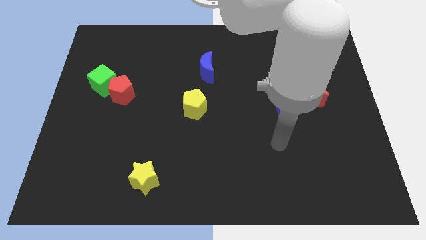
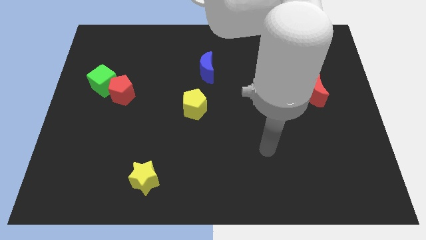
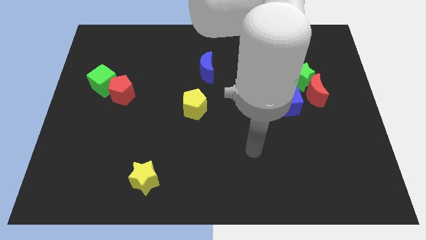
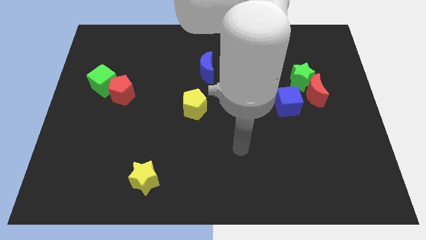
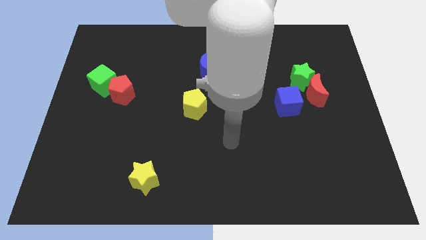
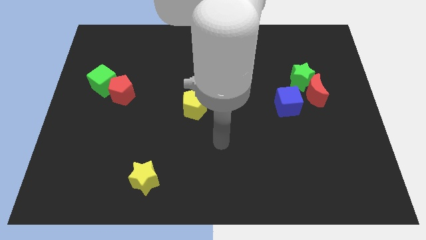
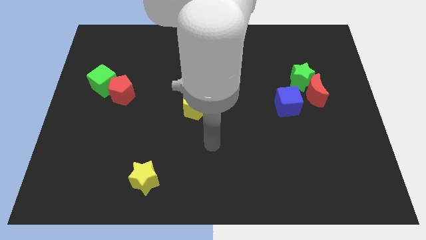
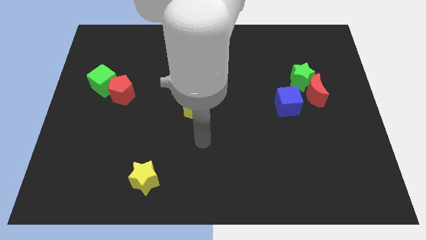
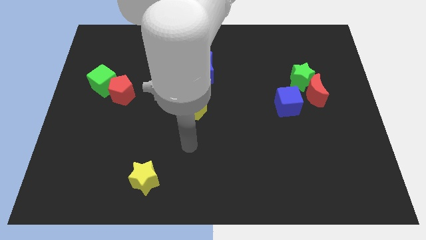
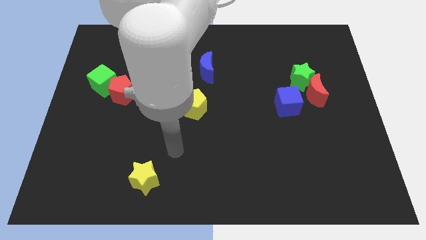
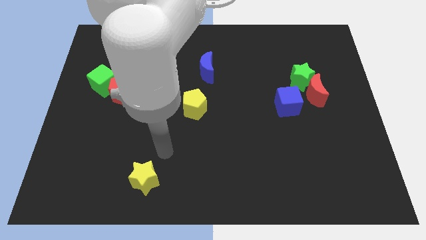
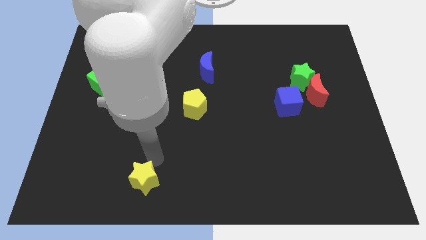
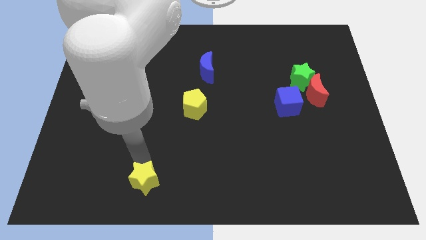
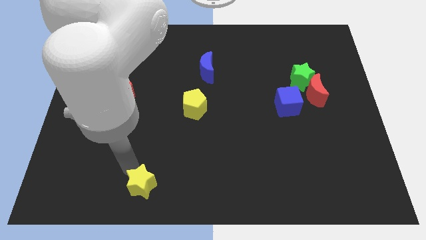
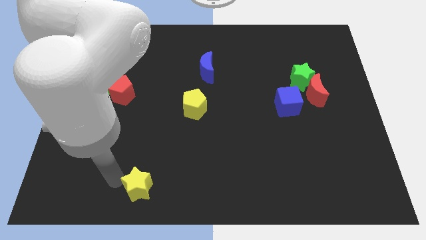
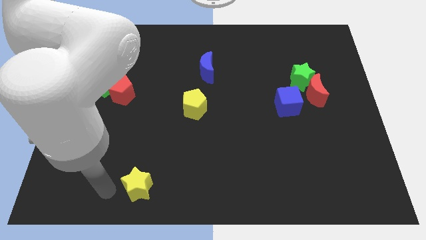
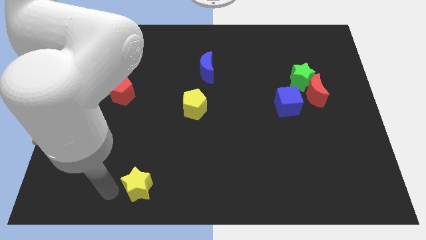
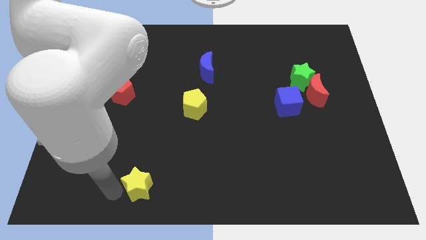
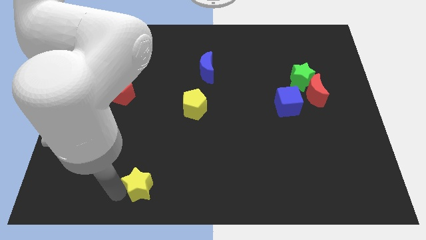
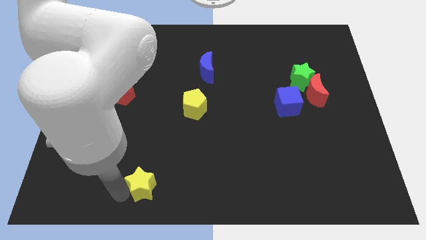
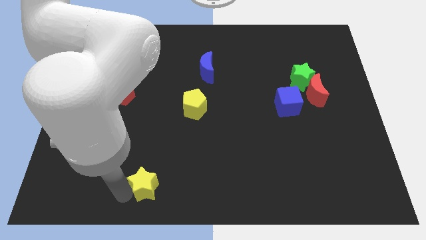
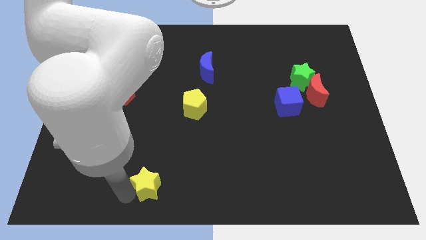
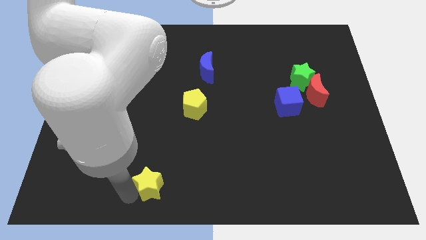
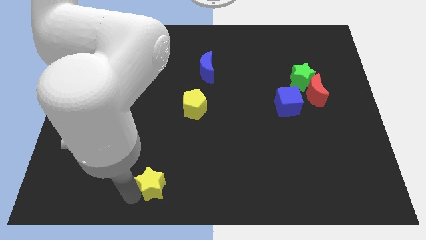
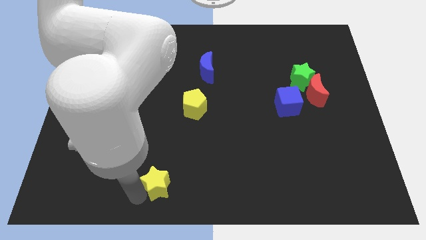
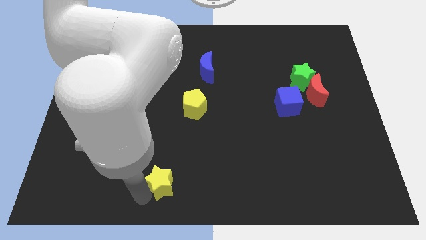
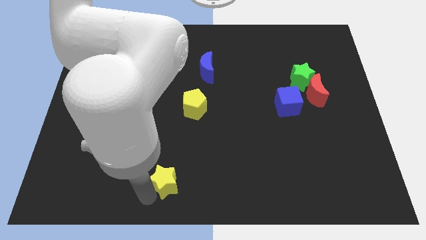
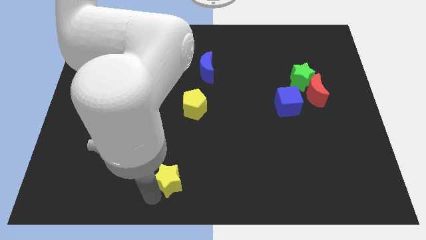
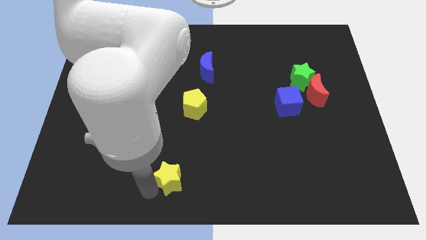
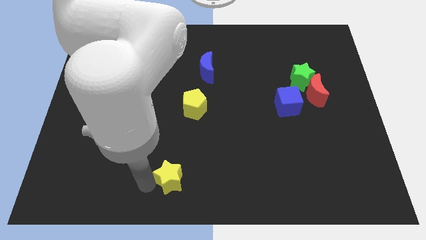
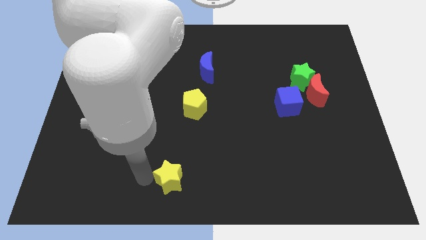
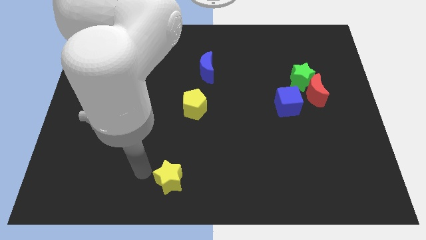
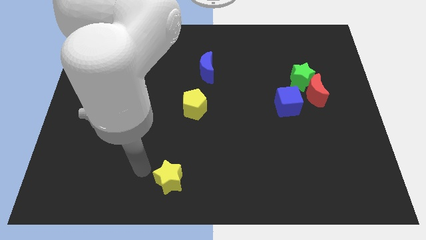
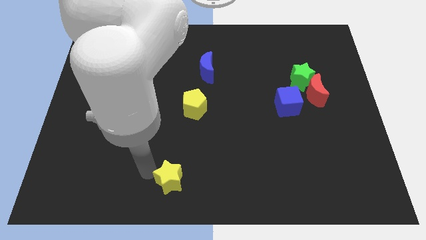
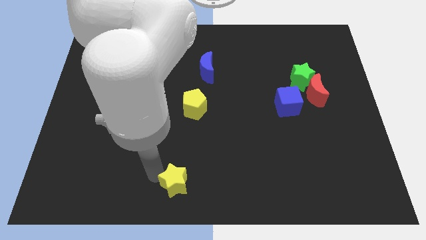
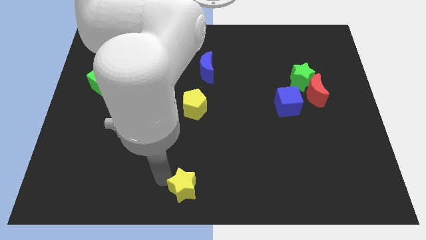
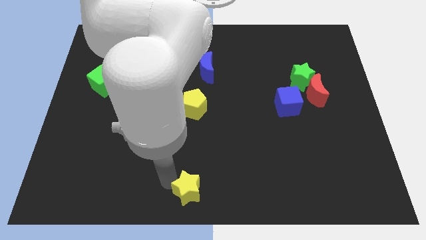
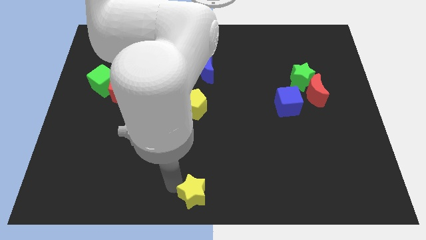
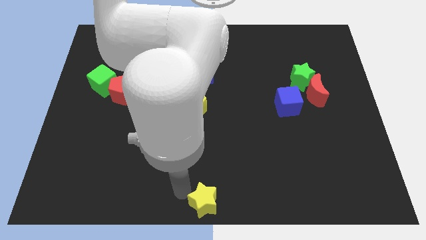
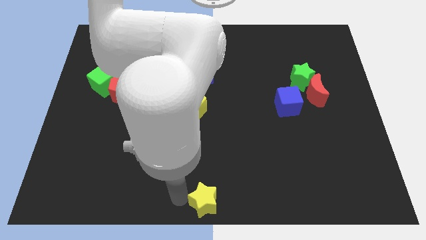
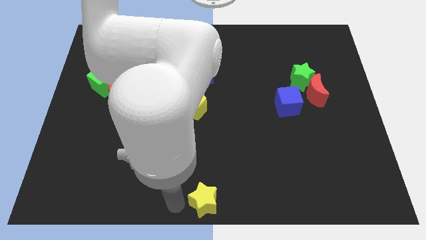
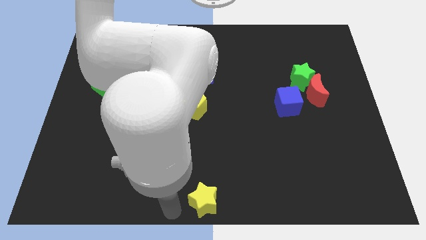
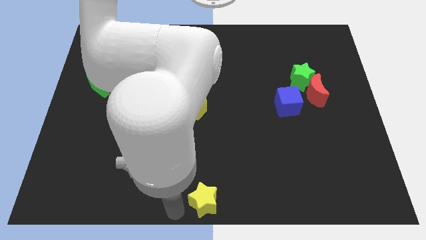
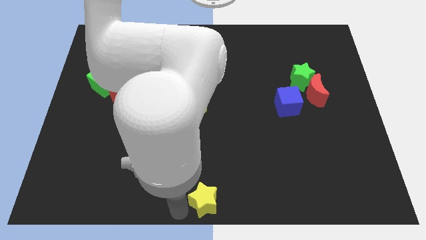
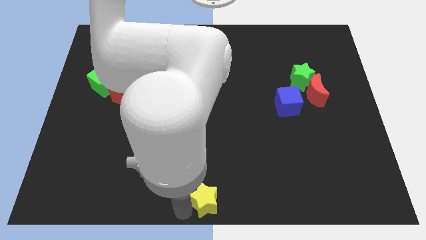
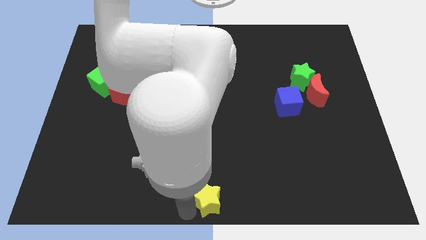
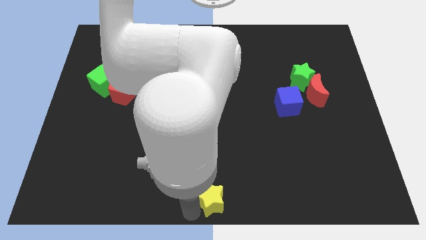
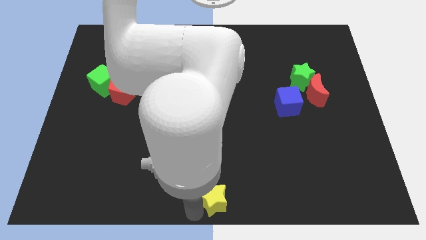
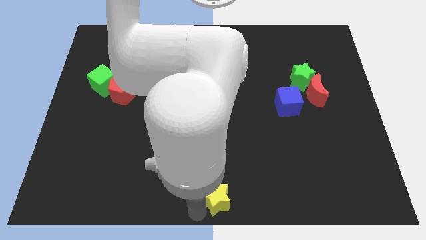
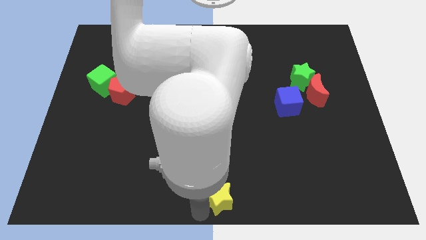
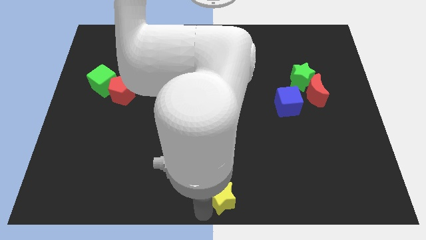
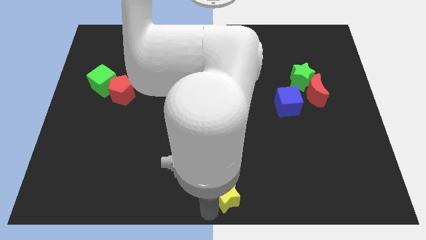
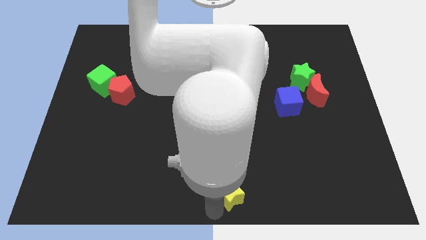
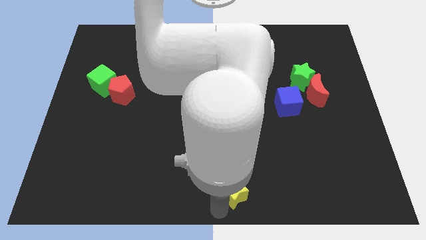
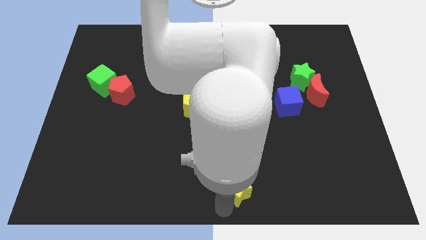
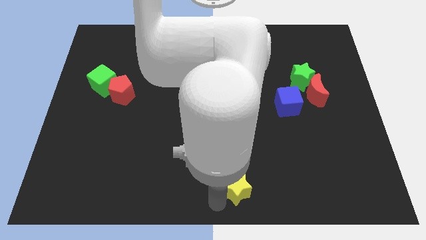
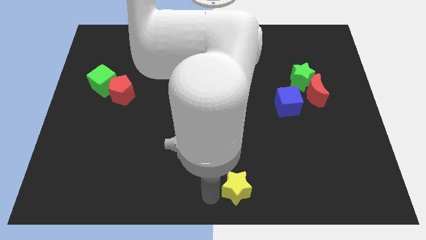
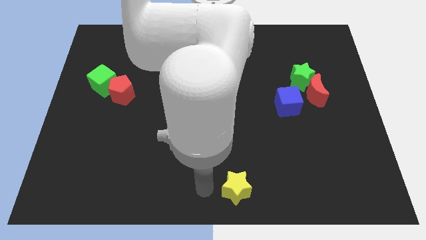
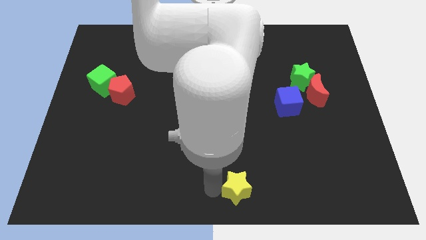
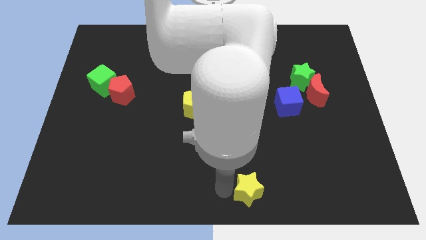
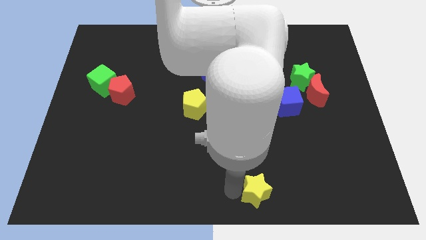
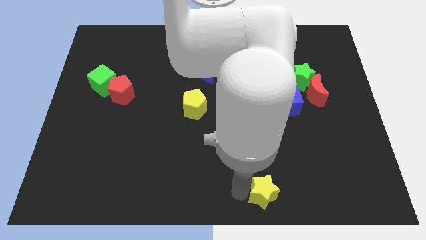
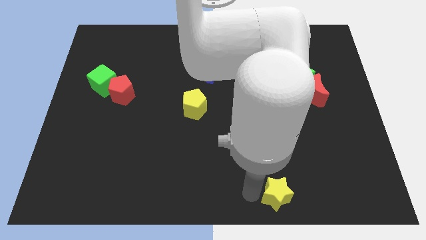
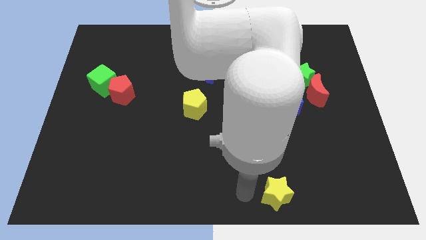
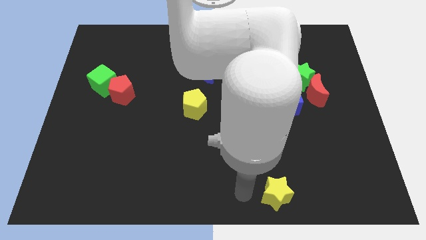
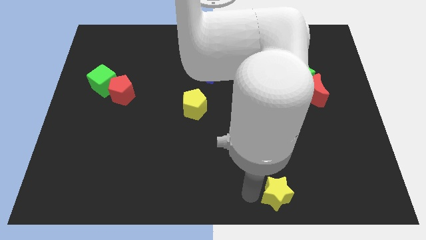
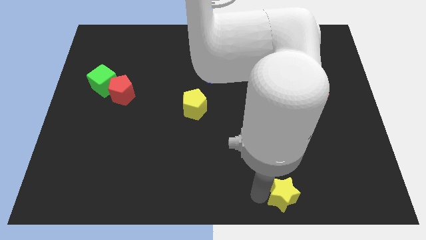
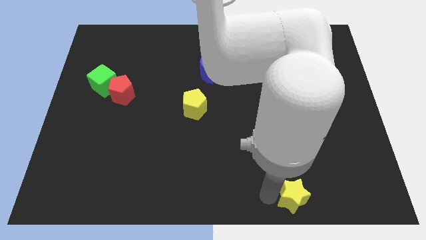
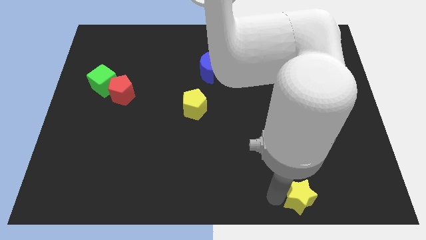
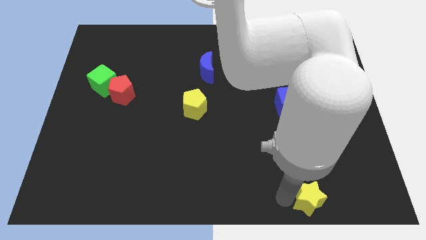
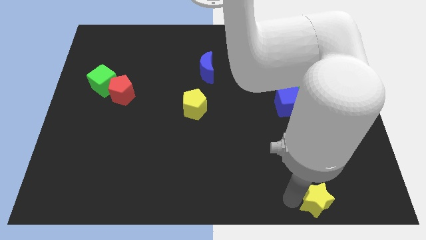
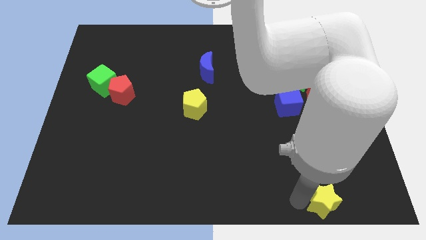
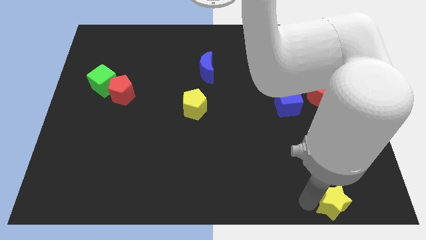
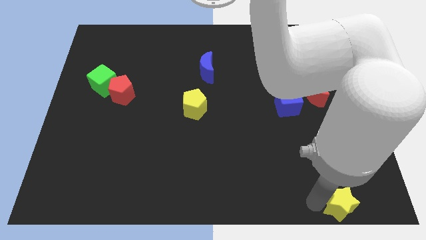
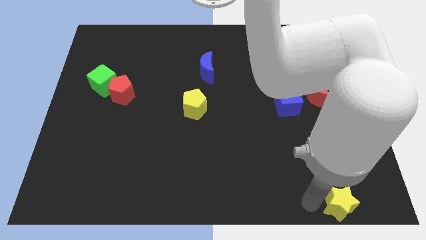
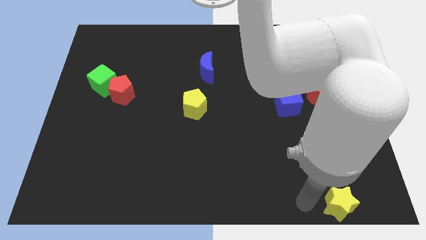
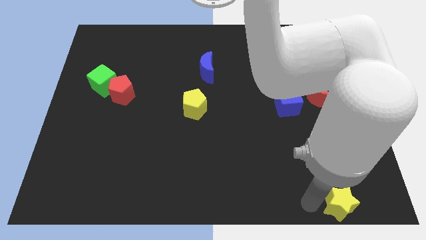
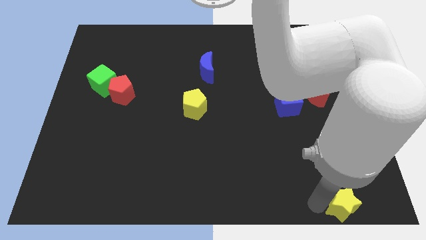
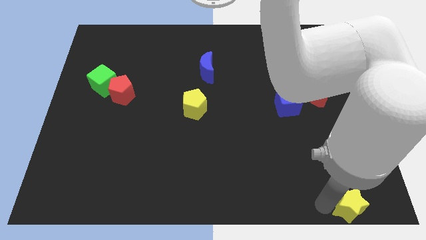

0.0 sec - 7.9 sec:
put the yellow star to the lower right corner
